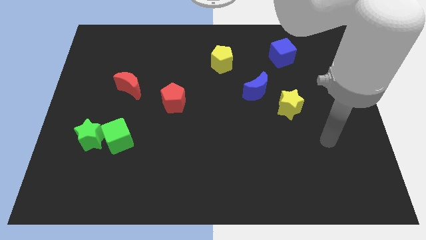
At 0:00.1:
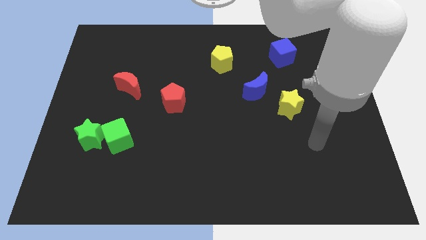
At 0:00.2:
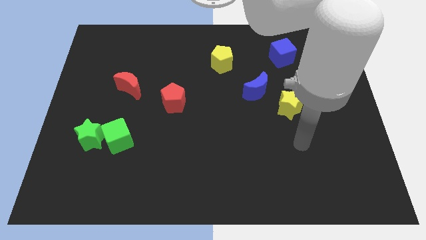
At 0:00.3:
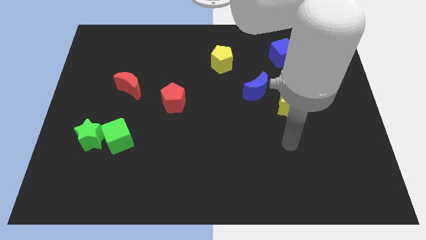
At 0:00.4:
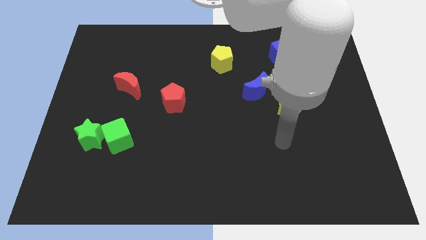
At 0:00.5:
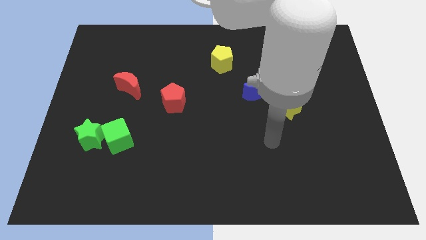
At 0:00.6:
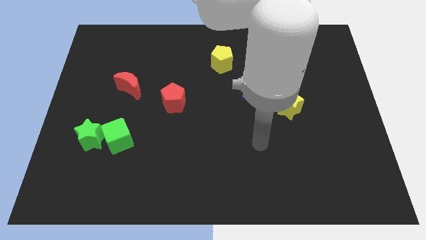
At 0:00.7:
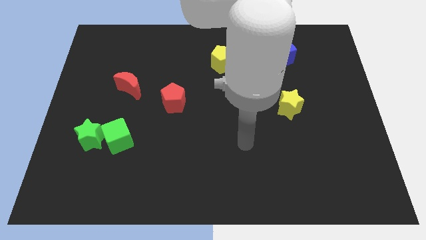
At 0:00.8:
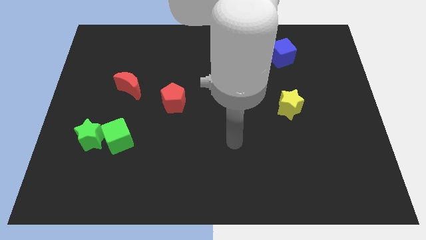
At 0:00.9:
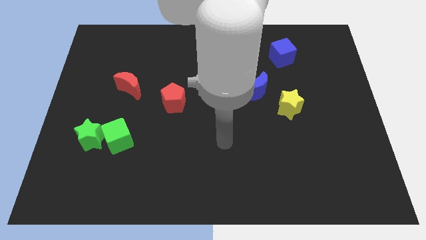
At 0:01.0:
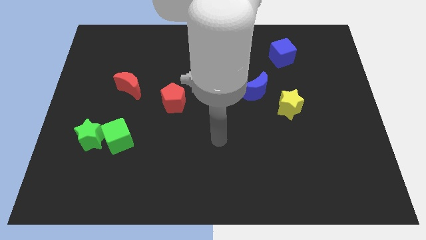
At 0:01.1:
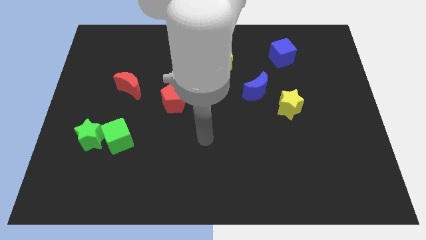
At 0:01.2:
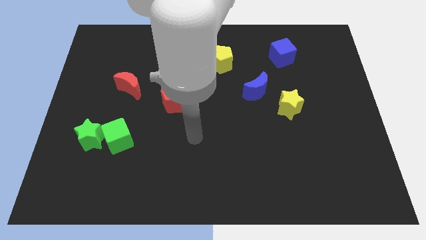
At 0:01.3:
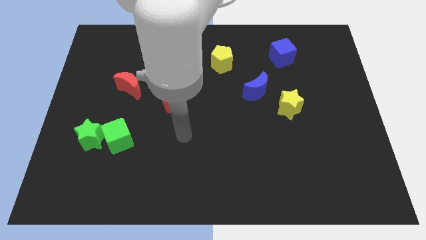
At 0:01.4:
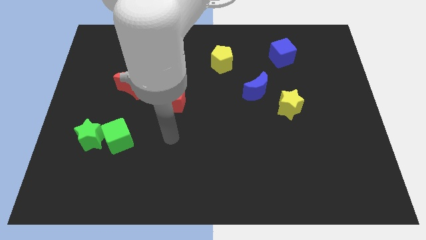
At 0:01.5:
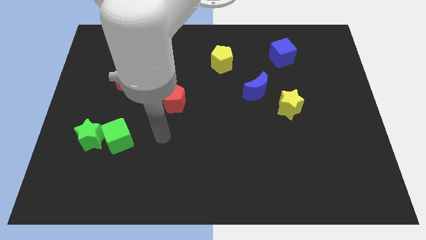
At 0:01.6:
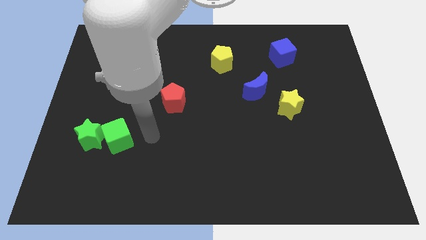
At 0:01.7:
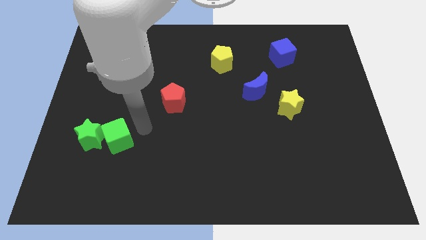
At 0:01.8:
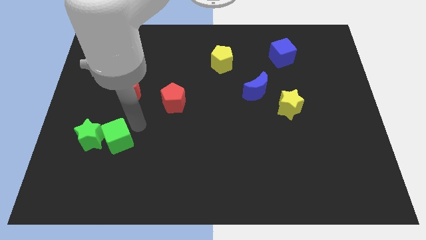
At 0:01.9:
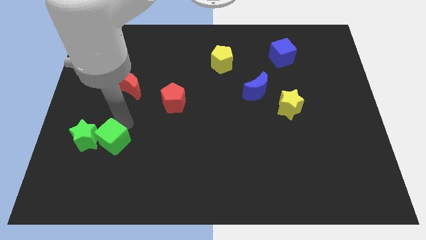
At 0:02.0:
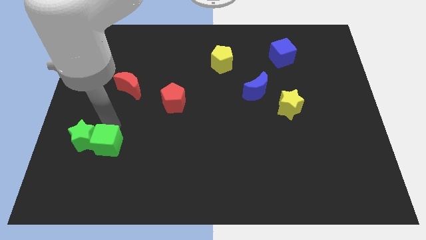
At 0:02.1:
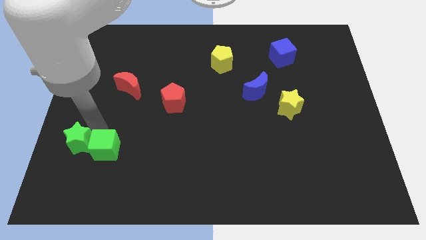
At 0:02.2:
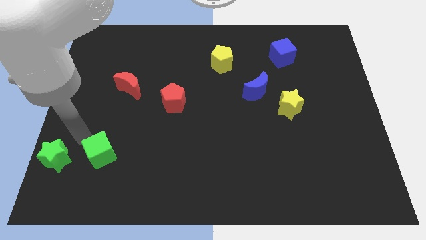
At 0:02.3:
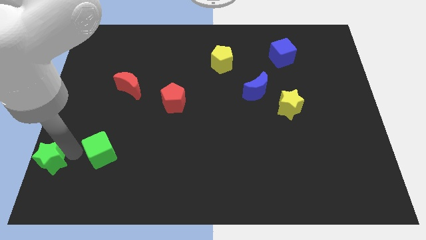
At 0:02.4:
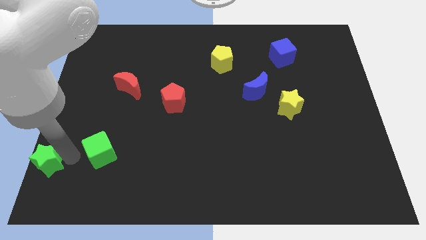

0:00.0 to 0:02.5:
move the green cube away from the green star

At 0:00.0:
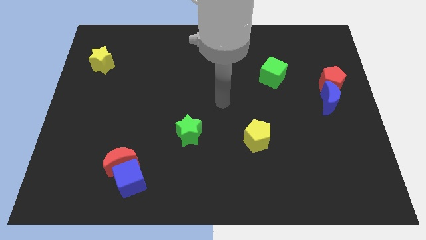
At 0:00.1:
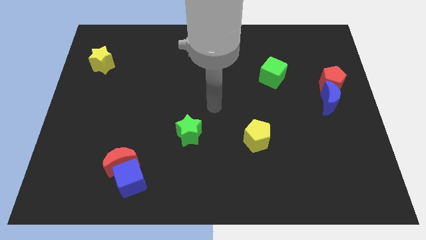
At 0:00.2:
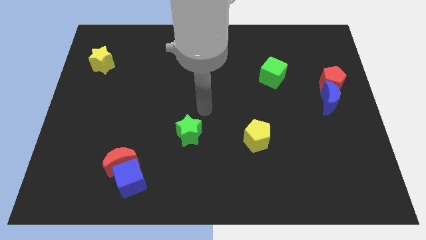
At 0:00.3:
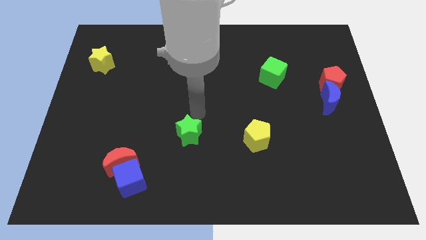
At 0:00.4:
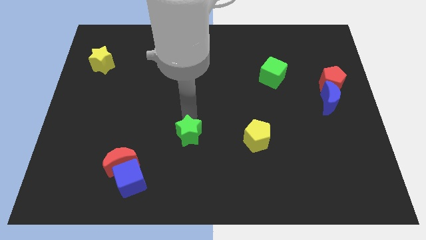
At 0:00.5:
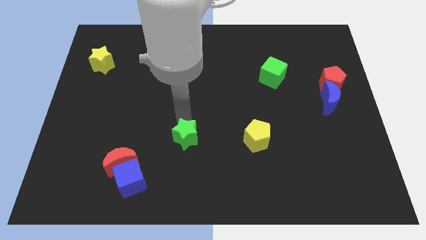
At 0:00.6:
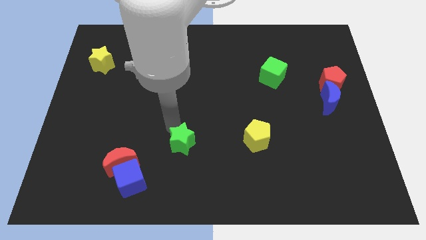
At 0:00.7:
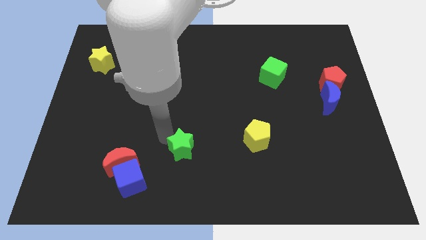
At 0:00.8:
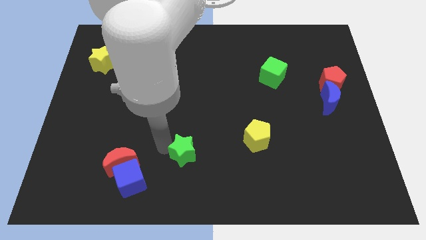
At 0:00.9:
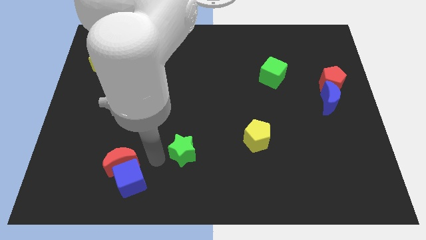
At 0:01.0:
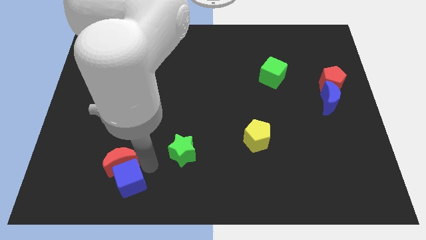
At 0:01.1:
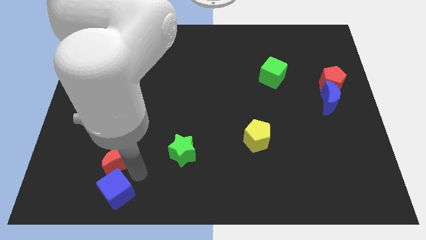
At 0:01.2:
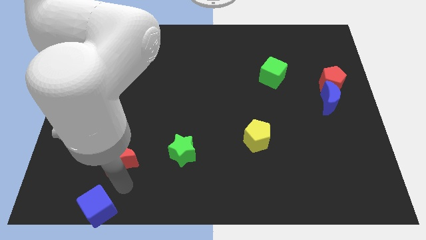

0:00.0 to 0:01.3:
separate the red moon from the blue cube

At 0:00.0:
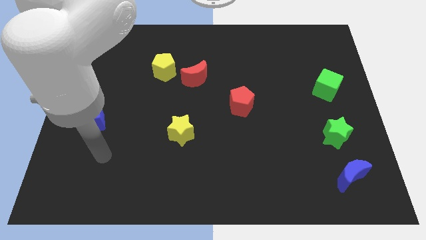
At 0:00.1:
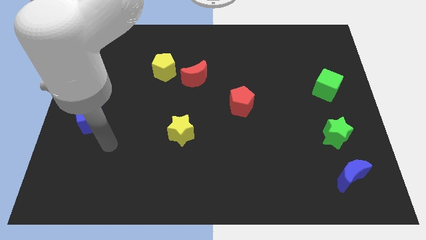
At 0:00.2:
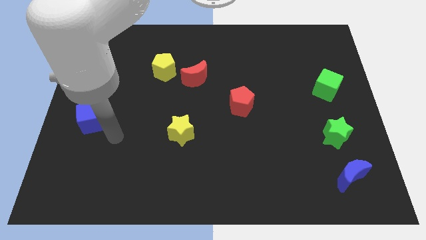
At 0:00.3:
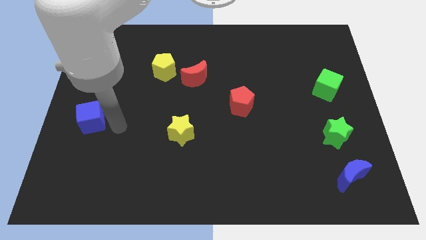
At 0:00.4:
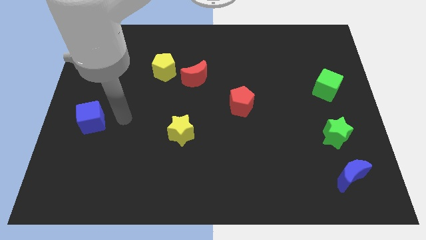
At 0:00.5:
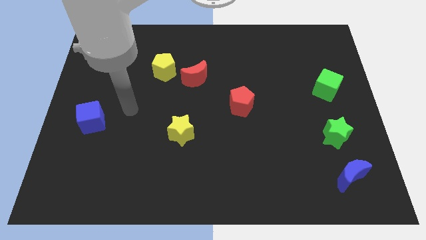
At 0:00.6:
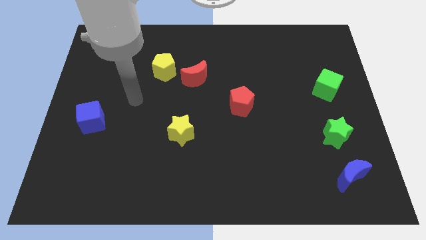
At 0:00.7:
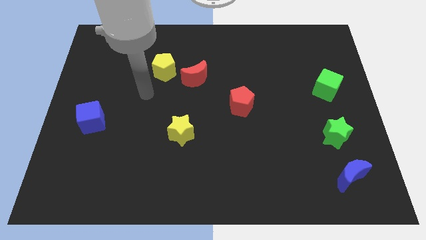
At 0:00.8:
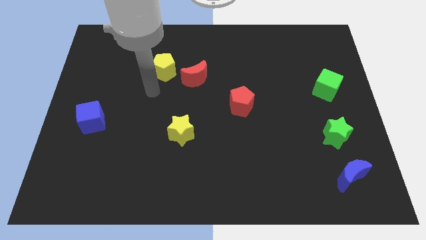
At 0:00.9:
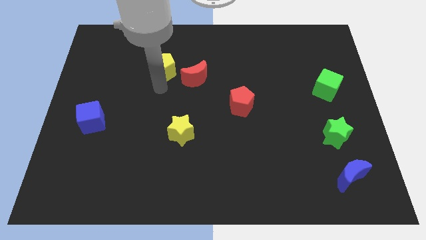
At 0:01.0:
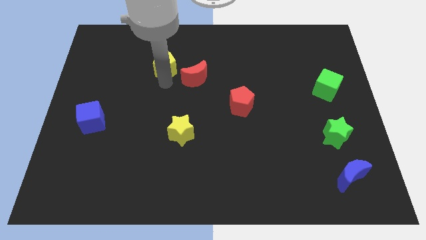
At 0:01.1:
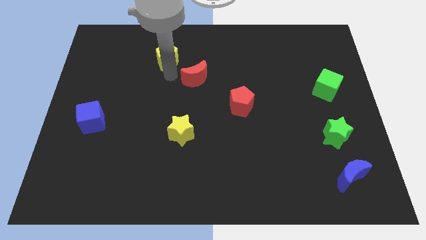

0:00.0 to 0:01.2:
separate the red moon from the yellow pentagon

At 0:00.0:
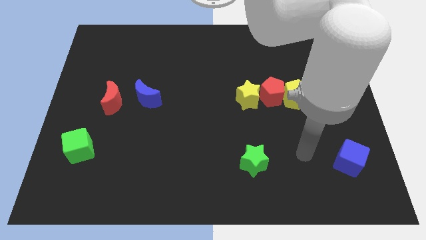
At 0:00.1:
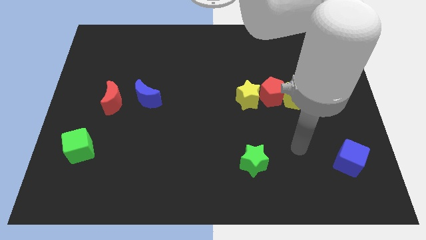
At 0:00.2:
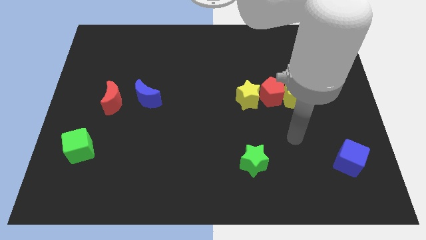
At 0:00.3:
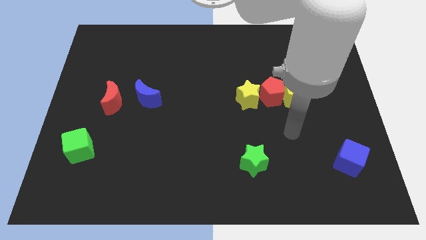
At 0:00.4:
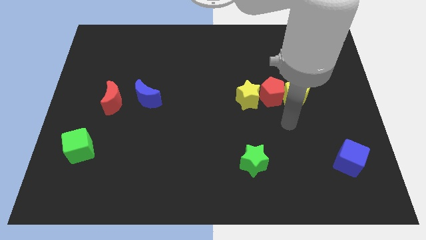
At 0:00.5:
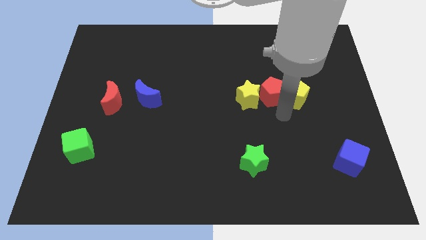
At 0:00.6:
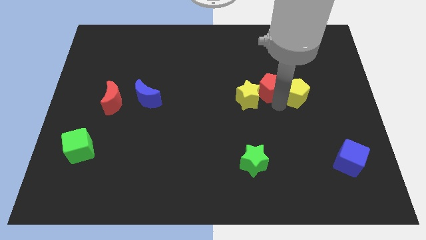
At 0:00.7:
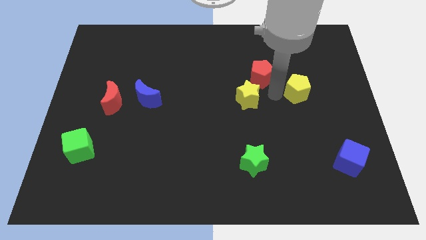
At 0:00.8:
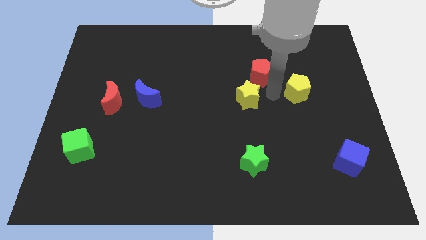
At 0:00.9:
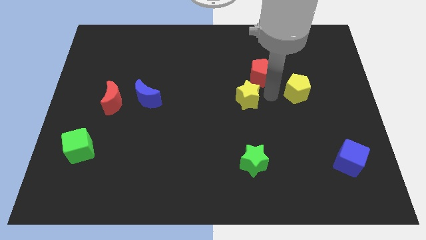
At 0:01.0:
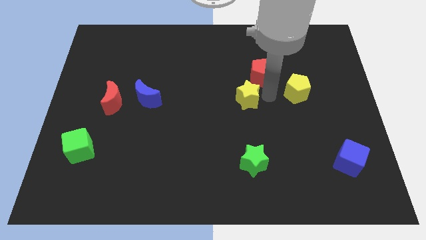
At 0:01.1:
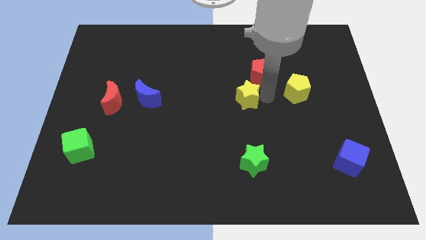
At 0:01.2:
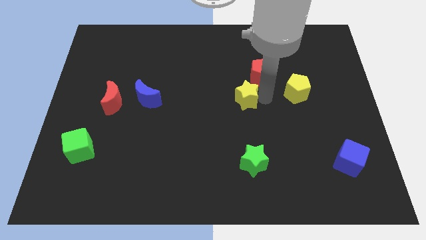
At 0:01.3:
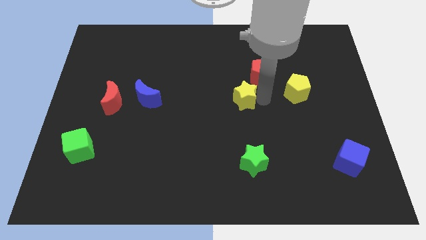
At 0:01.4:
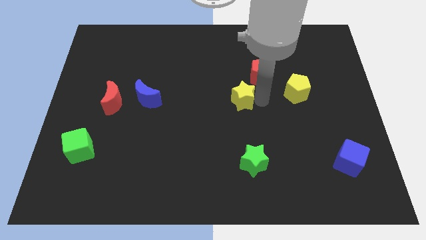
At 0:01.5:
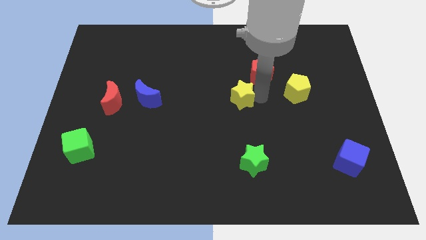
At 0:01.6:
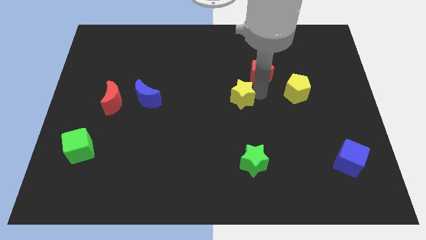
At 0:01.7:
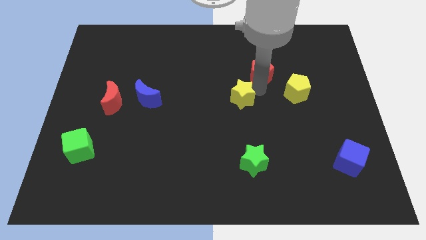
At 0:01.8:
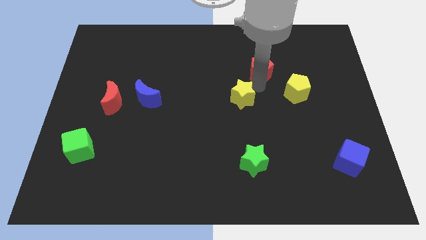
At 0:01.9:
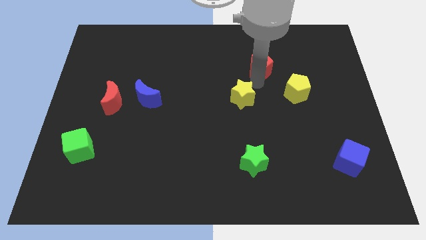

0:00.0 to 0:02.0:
separate the yellow star from the red pentagon

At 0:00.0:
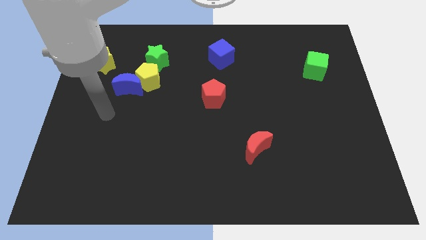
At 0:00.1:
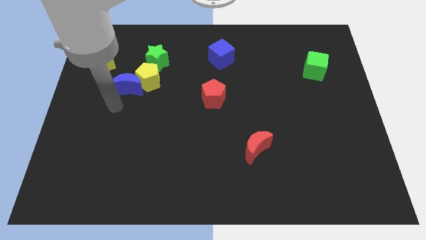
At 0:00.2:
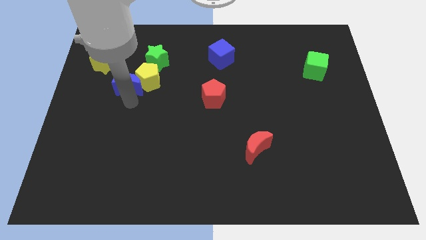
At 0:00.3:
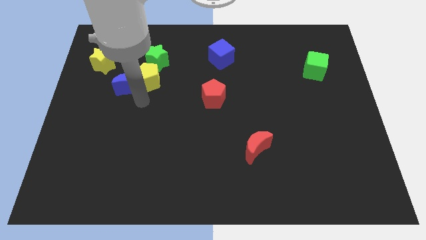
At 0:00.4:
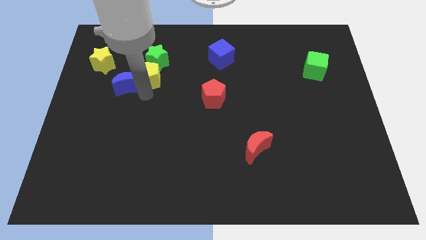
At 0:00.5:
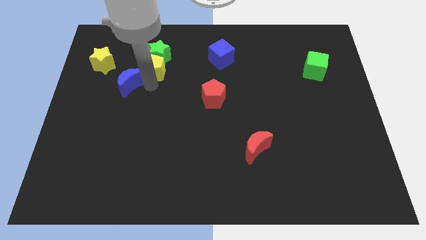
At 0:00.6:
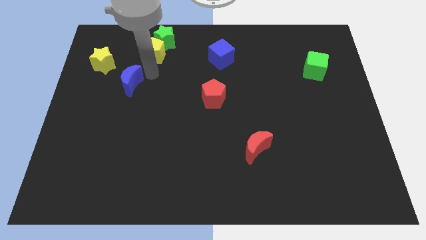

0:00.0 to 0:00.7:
separate the blue moon from the yellow pentagon

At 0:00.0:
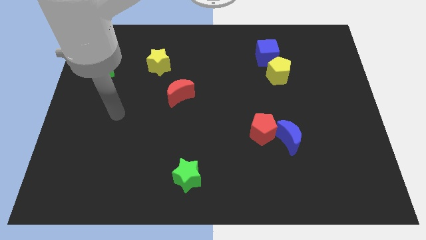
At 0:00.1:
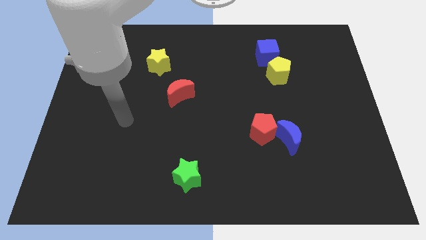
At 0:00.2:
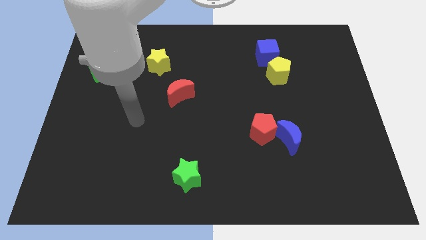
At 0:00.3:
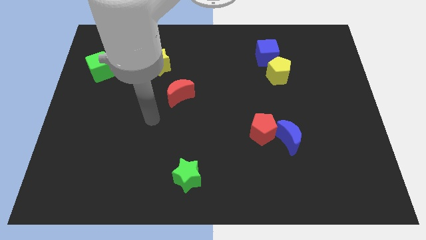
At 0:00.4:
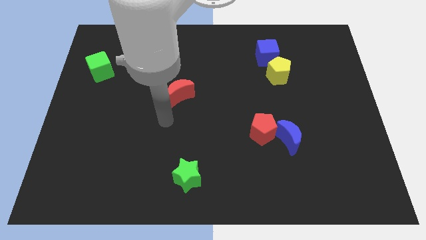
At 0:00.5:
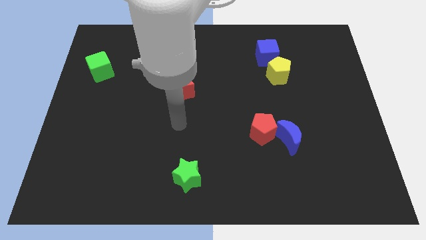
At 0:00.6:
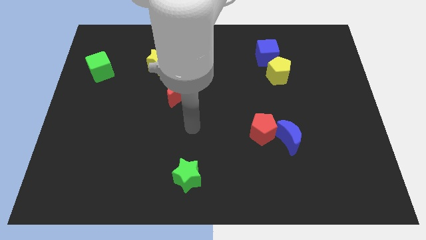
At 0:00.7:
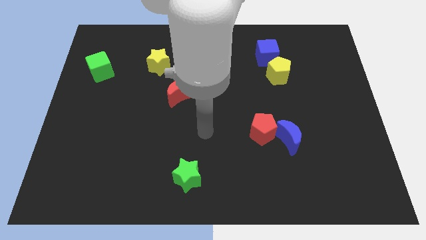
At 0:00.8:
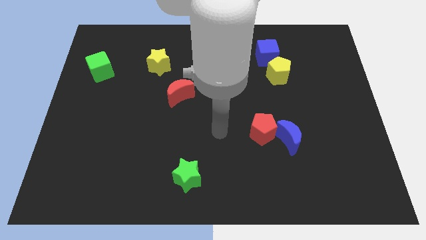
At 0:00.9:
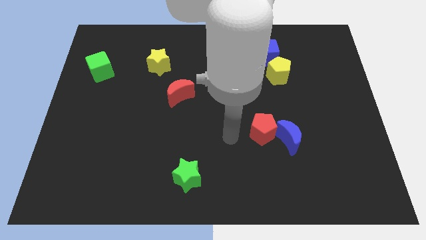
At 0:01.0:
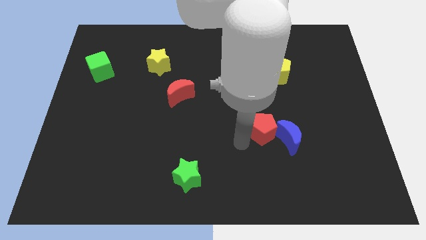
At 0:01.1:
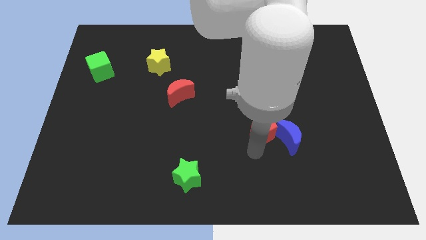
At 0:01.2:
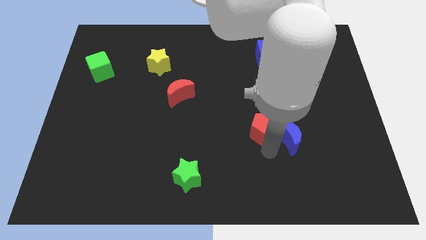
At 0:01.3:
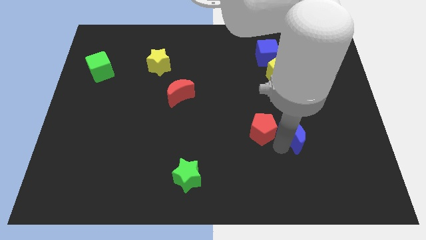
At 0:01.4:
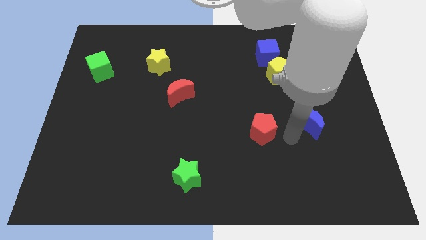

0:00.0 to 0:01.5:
separate the red pentagon from the blue moon
